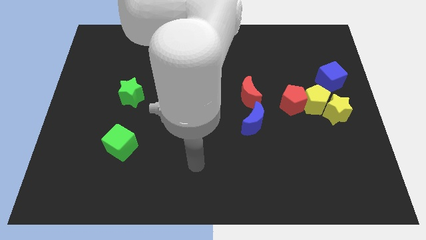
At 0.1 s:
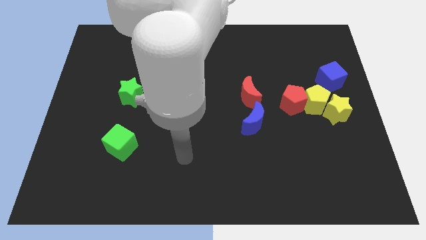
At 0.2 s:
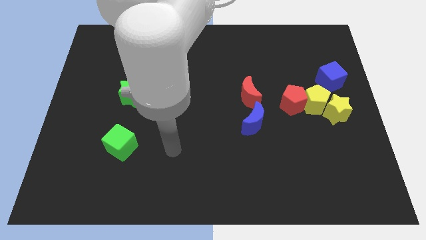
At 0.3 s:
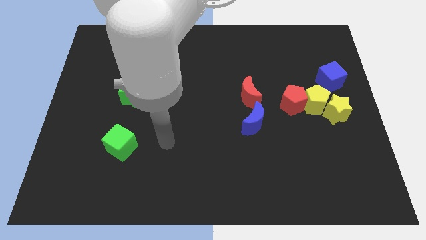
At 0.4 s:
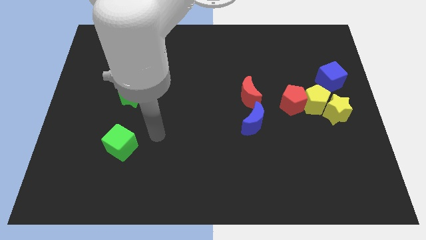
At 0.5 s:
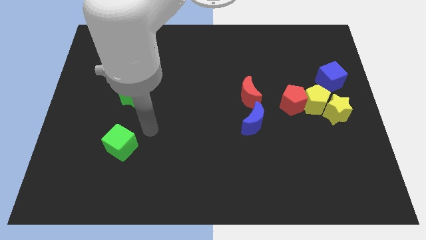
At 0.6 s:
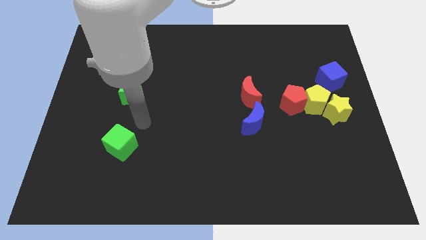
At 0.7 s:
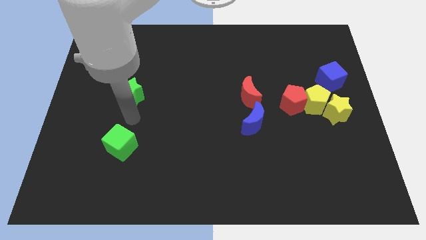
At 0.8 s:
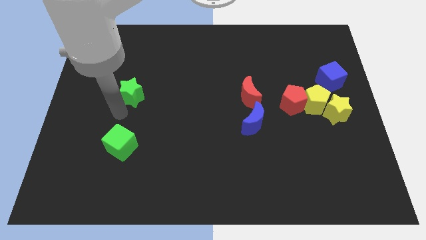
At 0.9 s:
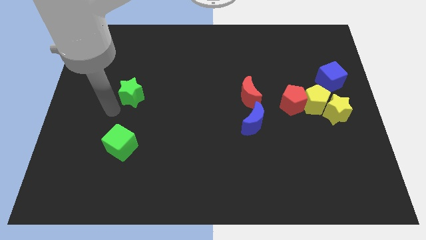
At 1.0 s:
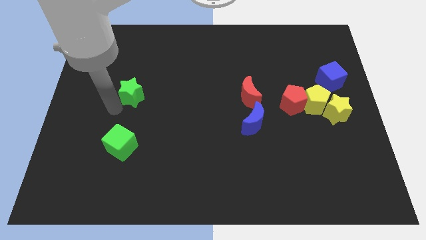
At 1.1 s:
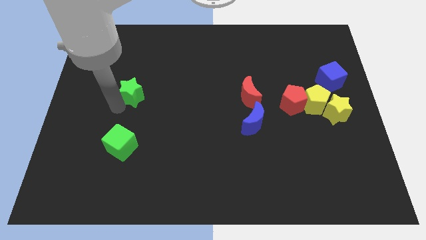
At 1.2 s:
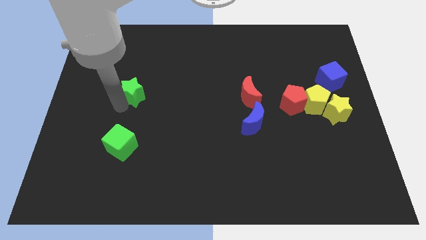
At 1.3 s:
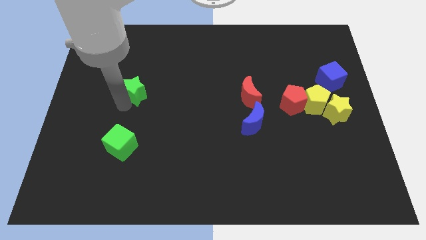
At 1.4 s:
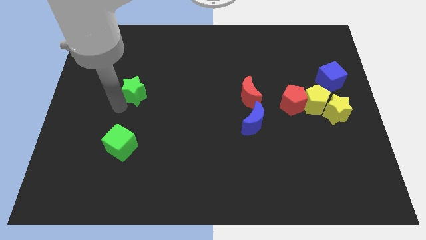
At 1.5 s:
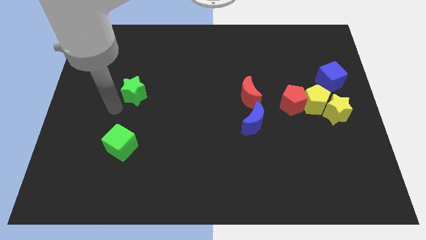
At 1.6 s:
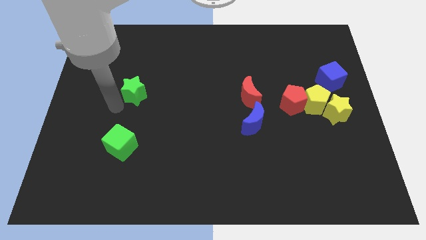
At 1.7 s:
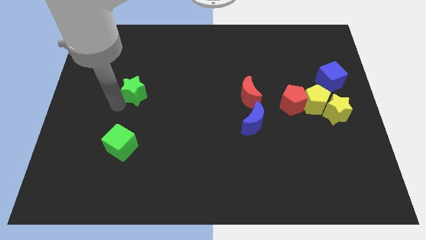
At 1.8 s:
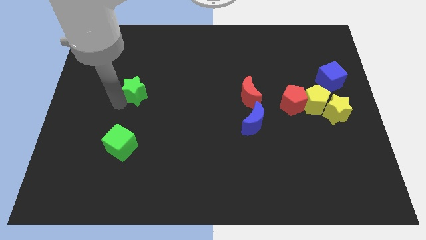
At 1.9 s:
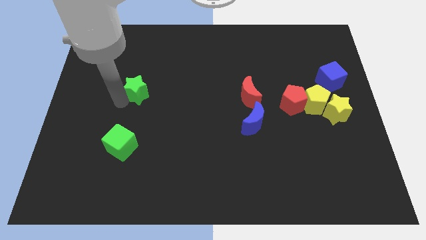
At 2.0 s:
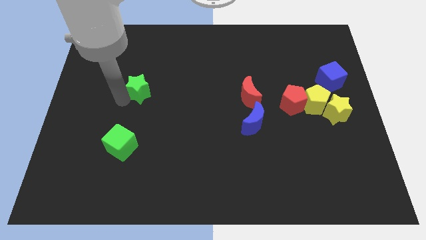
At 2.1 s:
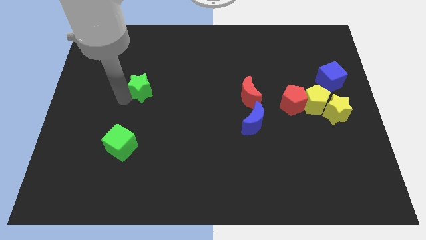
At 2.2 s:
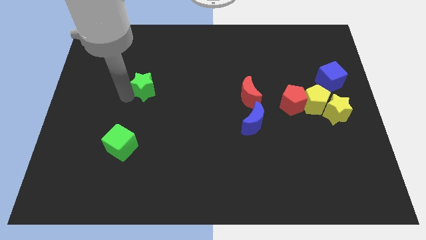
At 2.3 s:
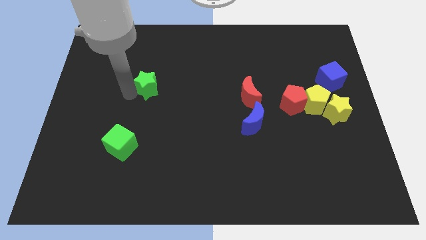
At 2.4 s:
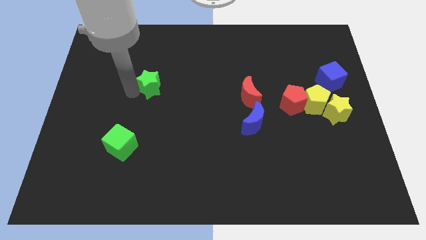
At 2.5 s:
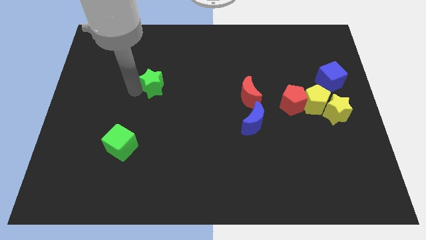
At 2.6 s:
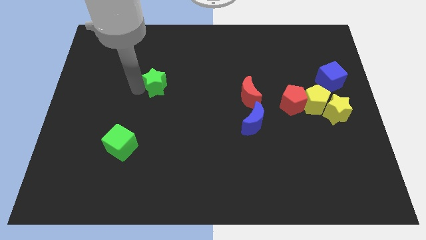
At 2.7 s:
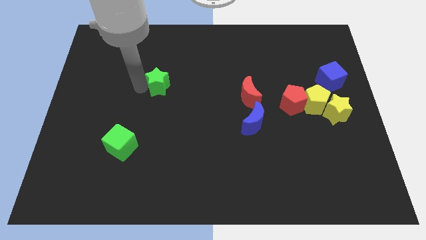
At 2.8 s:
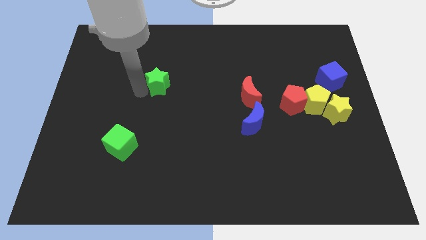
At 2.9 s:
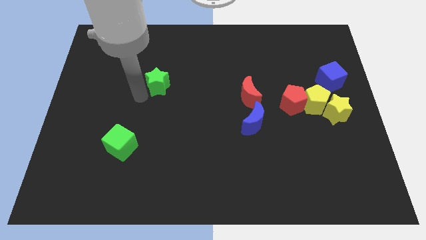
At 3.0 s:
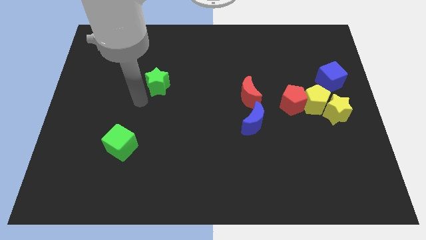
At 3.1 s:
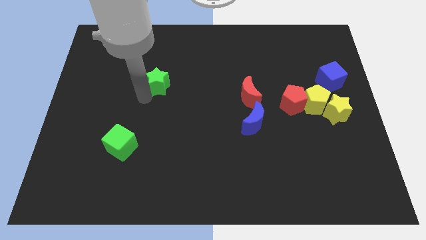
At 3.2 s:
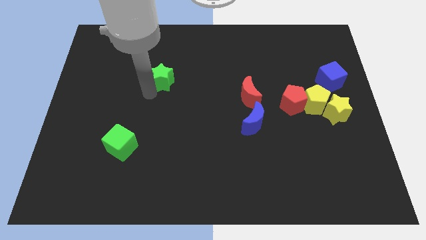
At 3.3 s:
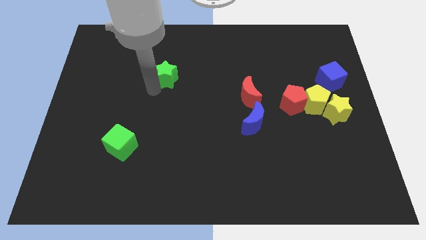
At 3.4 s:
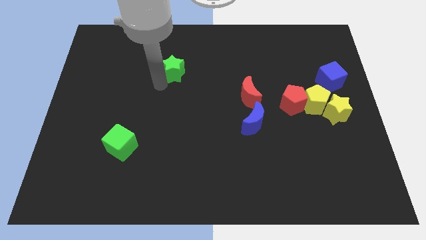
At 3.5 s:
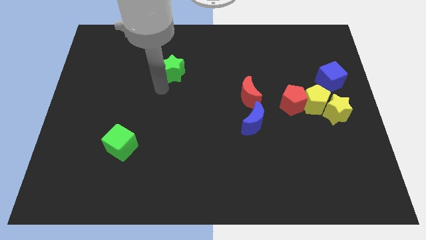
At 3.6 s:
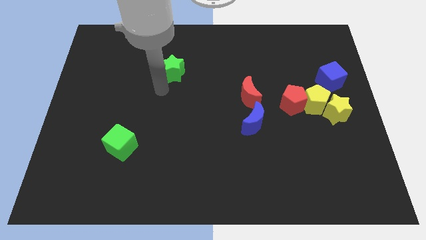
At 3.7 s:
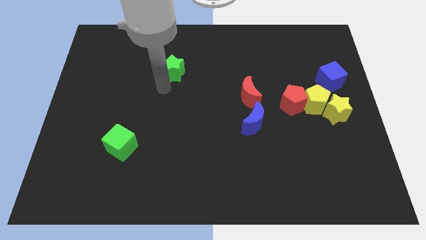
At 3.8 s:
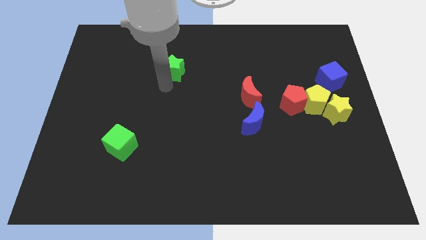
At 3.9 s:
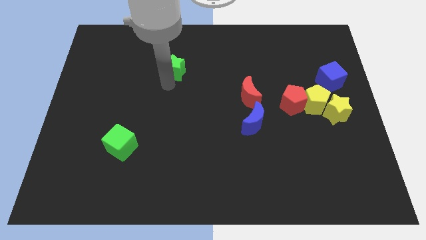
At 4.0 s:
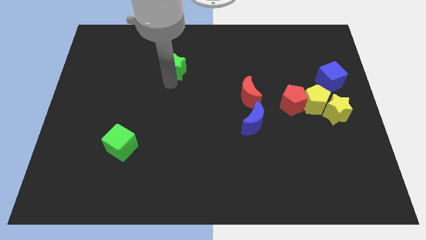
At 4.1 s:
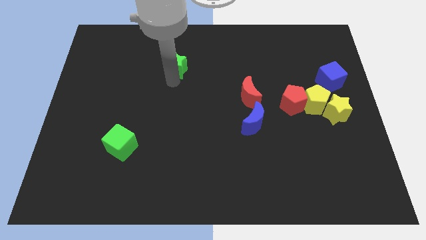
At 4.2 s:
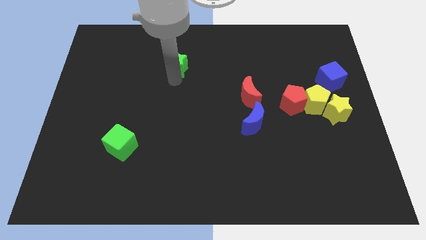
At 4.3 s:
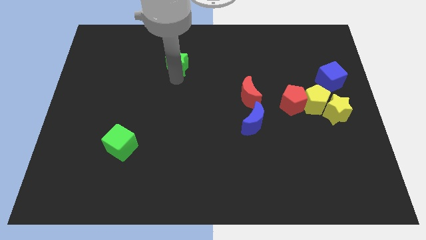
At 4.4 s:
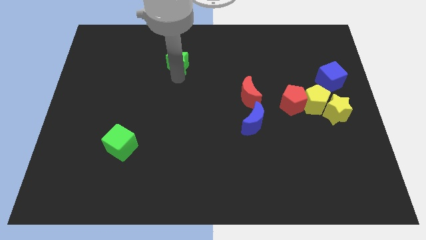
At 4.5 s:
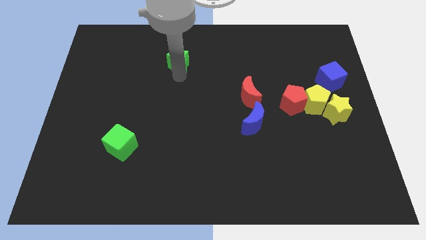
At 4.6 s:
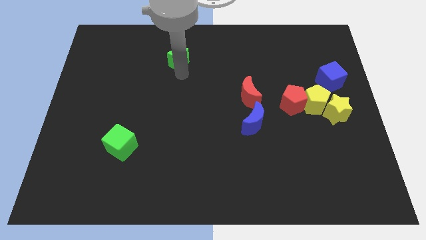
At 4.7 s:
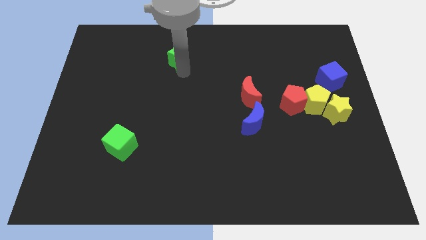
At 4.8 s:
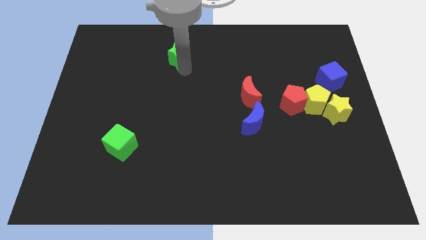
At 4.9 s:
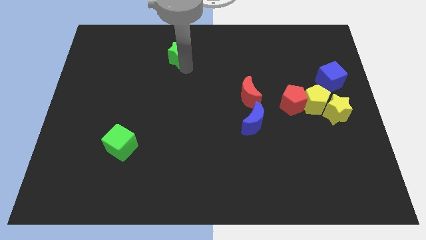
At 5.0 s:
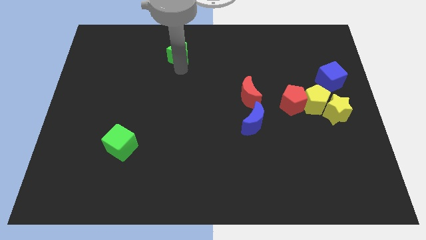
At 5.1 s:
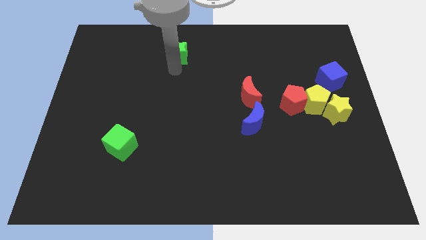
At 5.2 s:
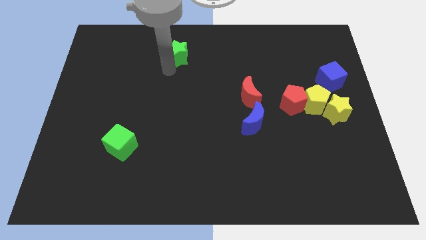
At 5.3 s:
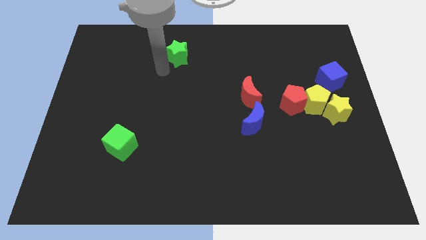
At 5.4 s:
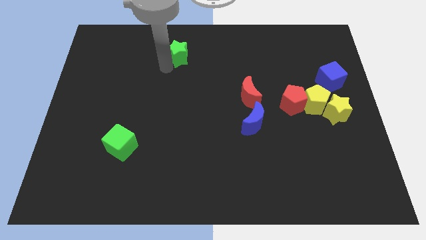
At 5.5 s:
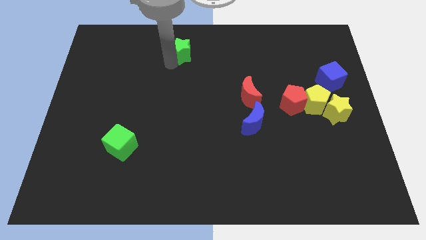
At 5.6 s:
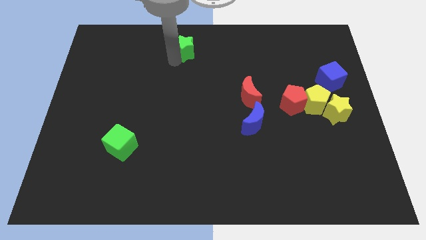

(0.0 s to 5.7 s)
put the green star to the top

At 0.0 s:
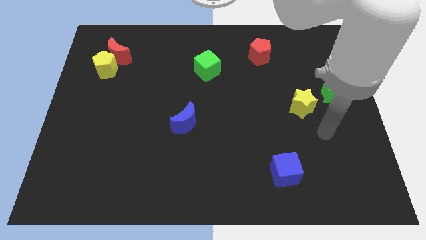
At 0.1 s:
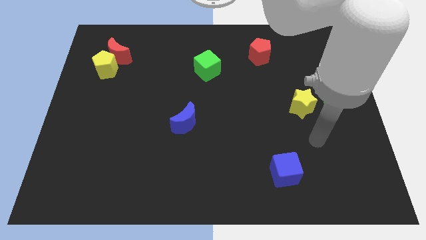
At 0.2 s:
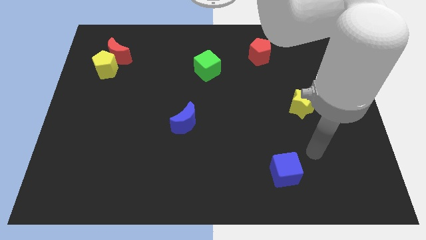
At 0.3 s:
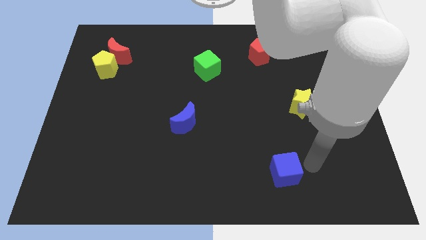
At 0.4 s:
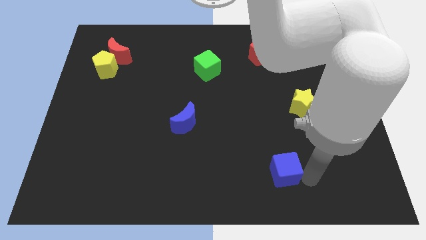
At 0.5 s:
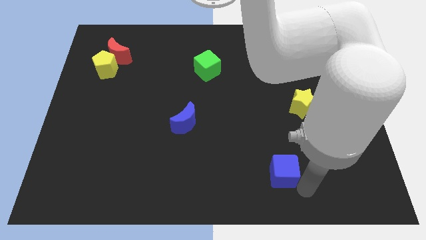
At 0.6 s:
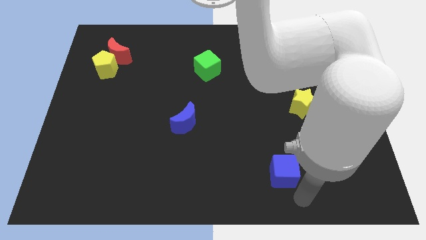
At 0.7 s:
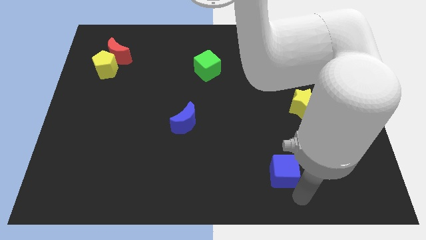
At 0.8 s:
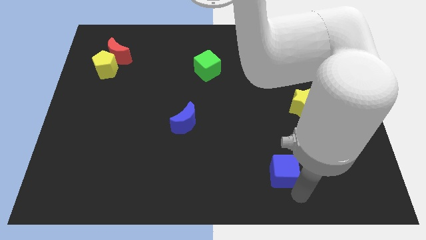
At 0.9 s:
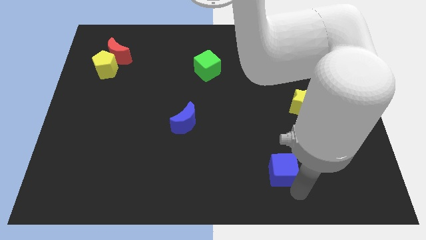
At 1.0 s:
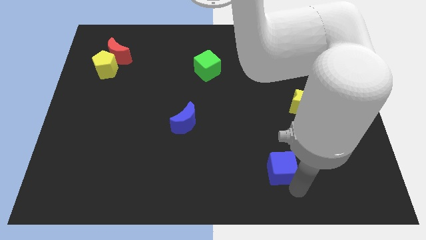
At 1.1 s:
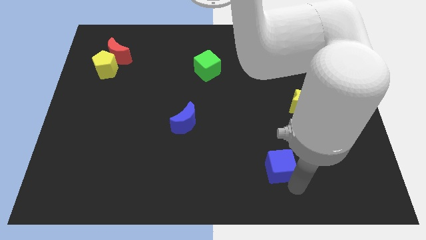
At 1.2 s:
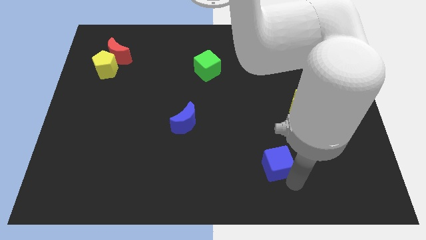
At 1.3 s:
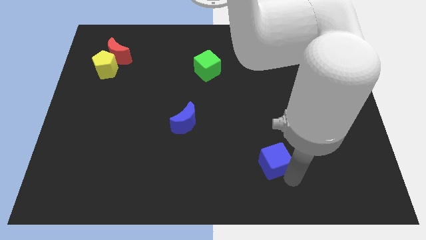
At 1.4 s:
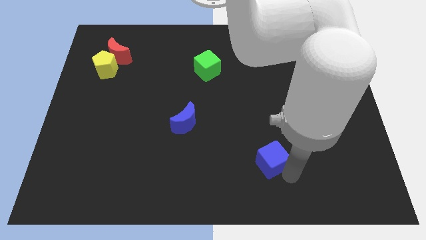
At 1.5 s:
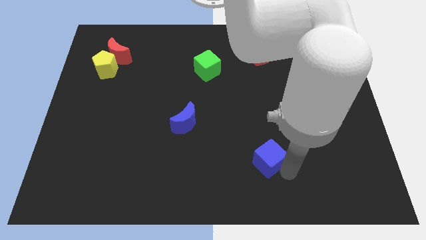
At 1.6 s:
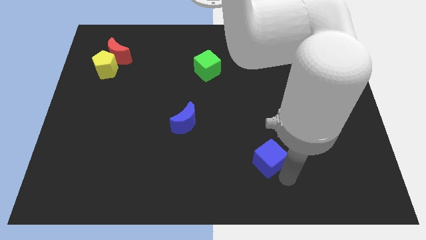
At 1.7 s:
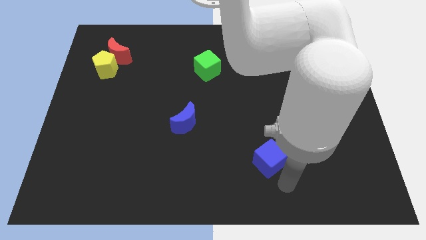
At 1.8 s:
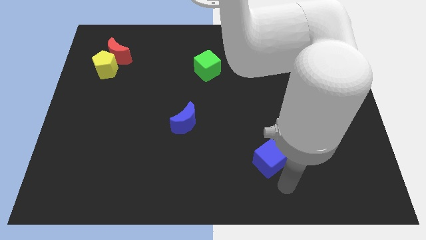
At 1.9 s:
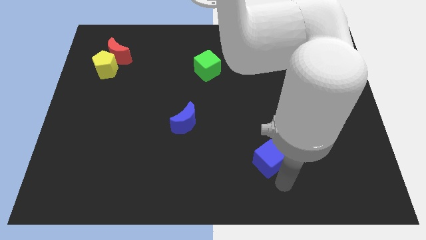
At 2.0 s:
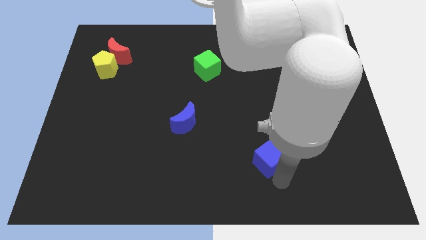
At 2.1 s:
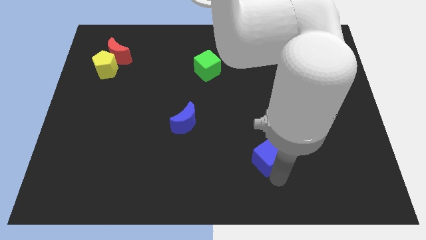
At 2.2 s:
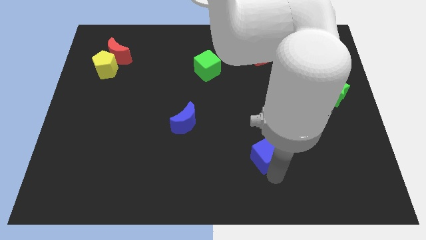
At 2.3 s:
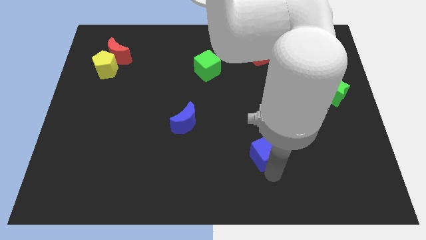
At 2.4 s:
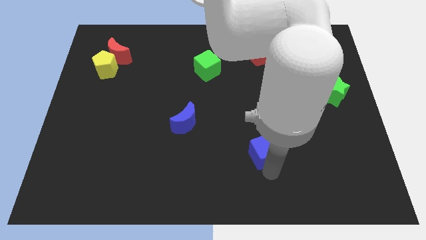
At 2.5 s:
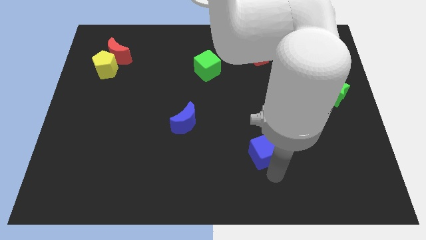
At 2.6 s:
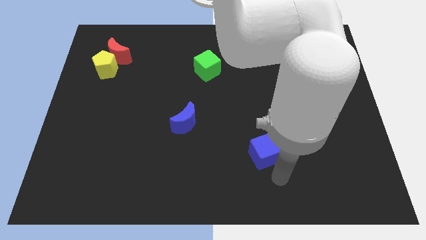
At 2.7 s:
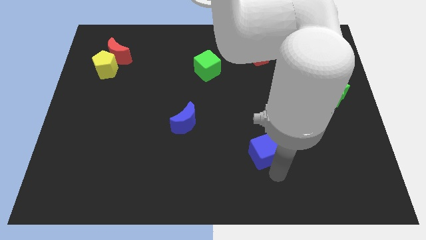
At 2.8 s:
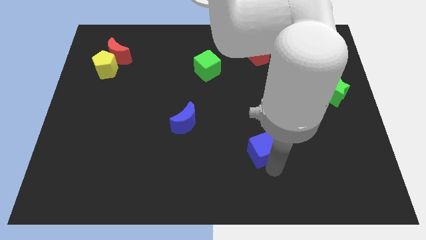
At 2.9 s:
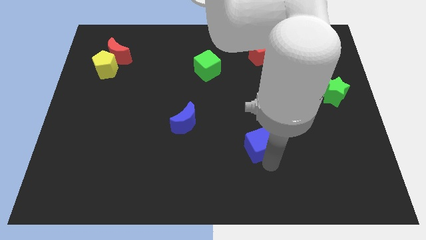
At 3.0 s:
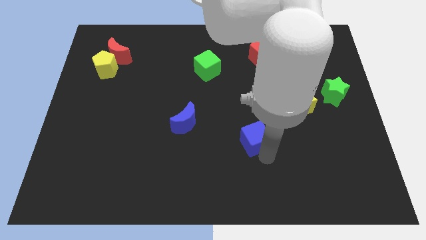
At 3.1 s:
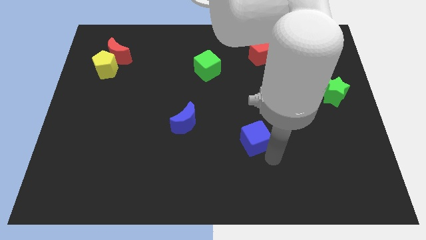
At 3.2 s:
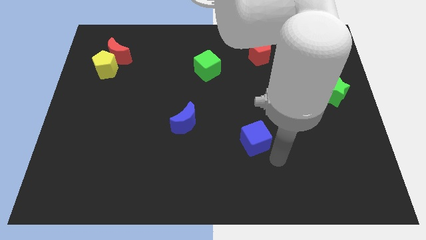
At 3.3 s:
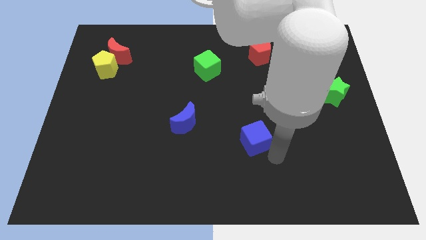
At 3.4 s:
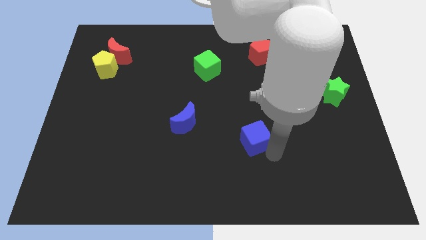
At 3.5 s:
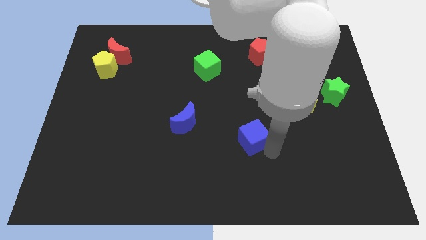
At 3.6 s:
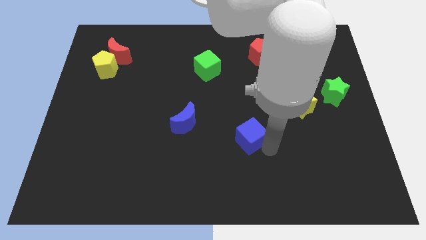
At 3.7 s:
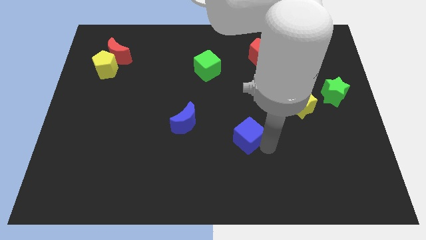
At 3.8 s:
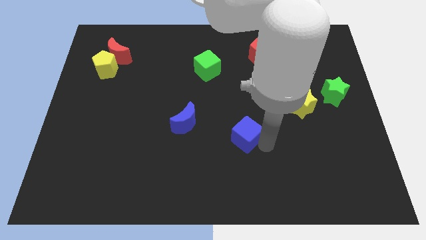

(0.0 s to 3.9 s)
put the blue cube to the center
